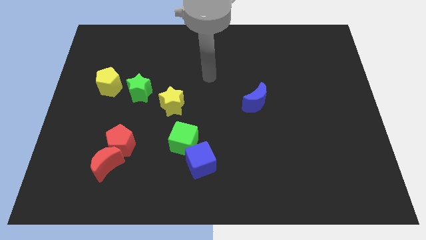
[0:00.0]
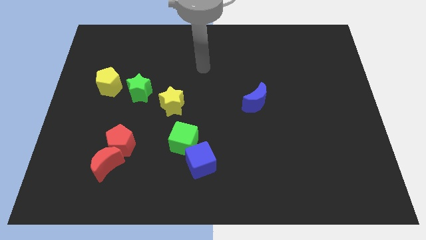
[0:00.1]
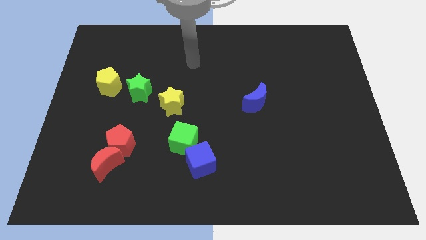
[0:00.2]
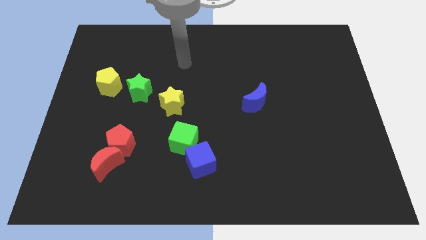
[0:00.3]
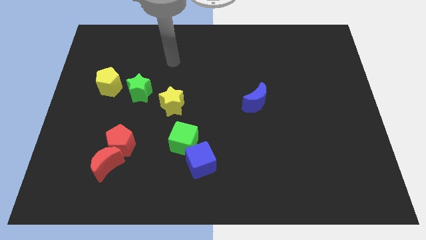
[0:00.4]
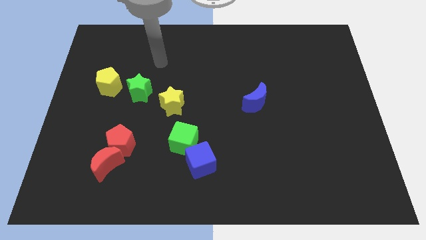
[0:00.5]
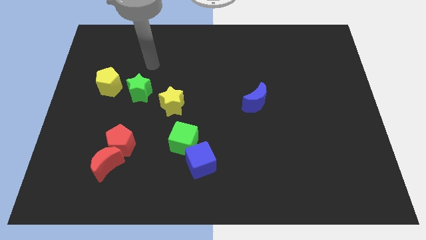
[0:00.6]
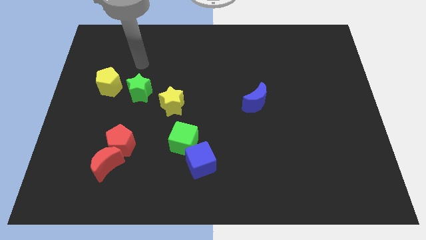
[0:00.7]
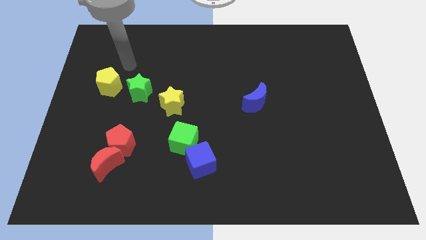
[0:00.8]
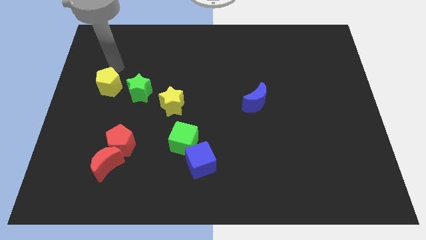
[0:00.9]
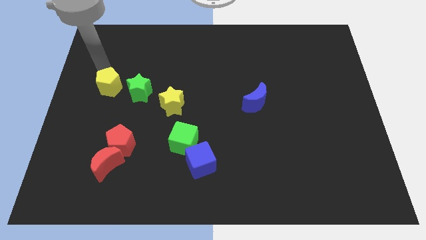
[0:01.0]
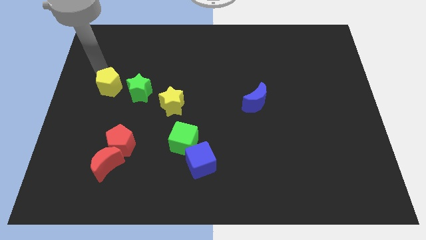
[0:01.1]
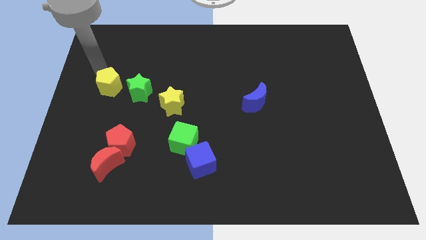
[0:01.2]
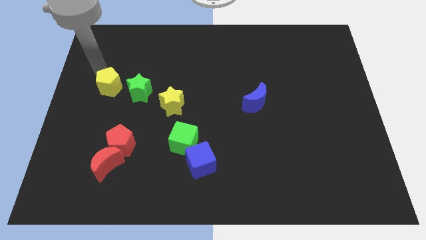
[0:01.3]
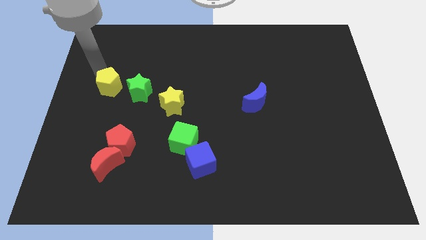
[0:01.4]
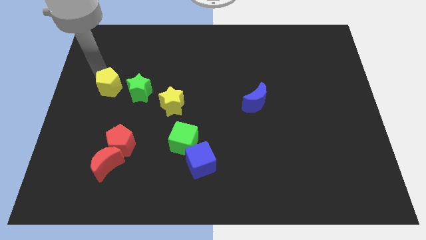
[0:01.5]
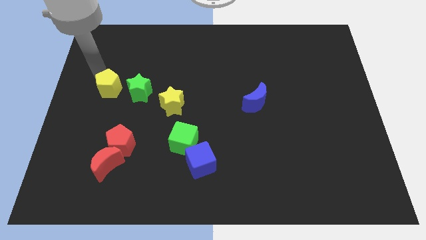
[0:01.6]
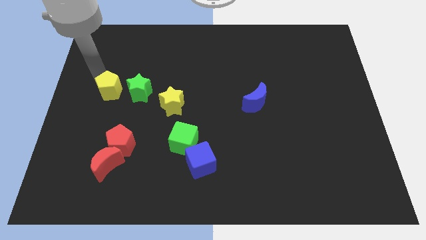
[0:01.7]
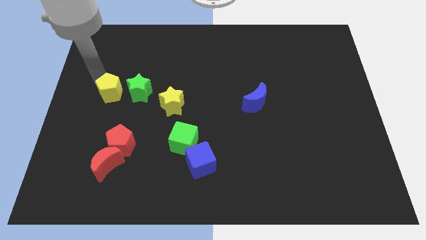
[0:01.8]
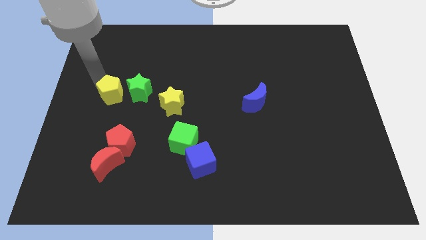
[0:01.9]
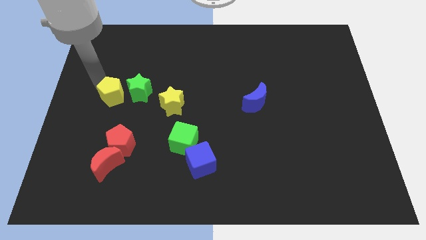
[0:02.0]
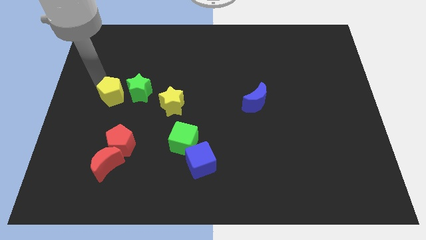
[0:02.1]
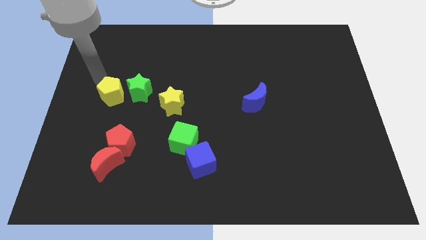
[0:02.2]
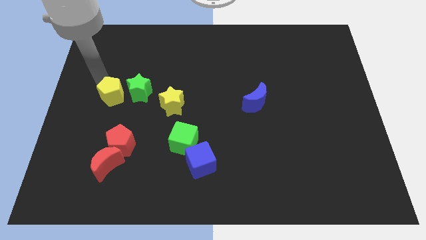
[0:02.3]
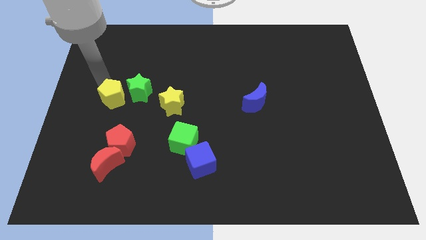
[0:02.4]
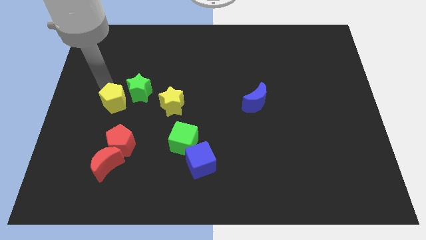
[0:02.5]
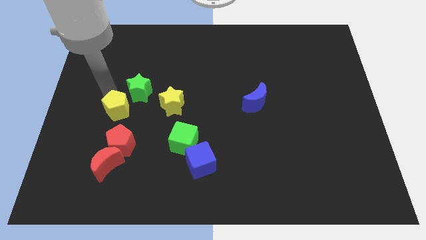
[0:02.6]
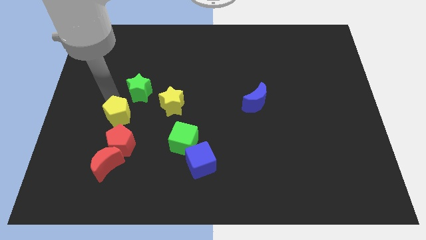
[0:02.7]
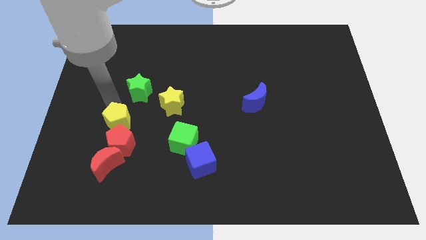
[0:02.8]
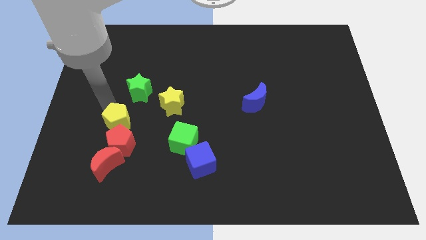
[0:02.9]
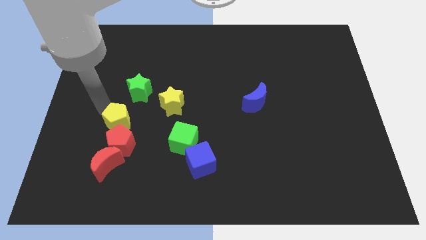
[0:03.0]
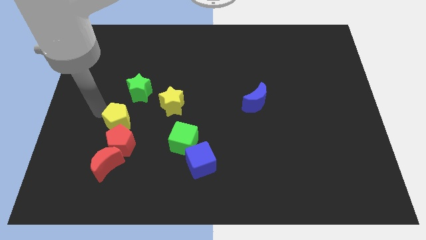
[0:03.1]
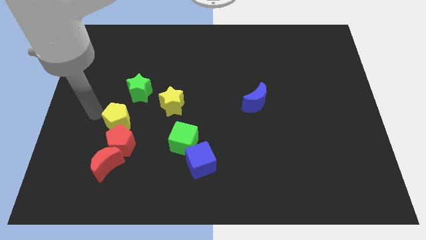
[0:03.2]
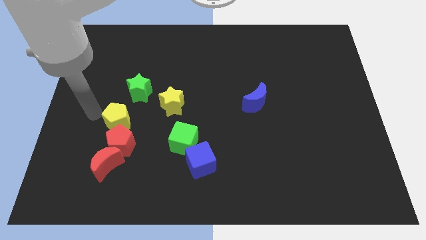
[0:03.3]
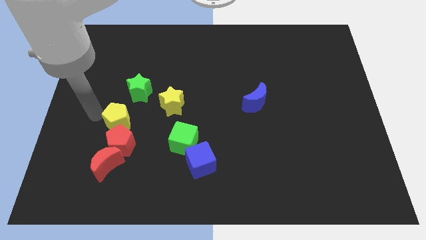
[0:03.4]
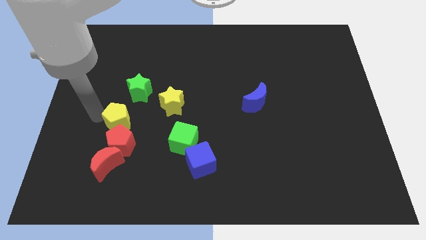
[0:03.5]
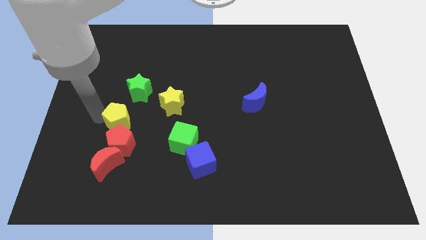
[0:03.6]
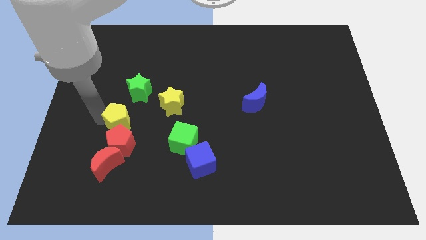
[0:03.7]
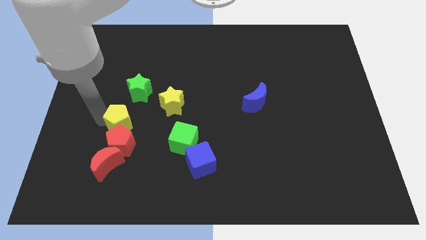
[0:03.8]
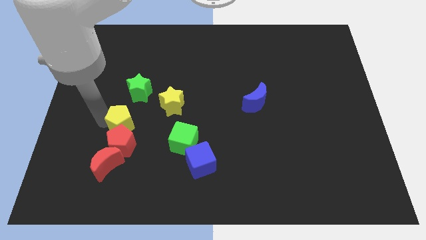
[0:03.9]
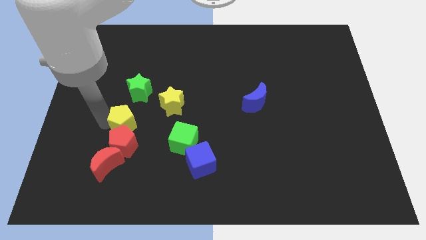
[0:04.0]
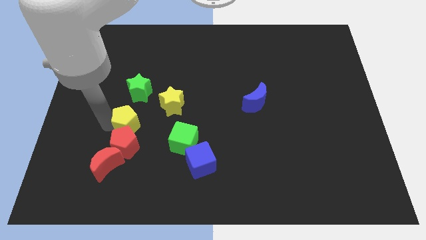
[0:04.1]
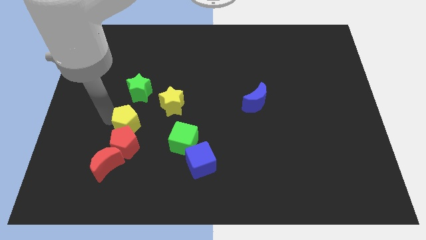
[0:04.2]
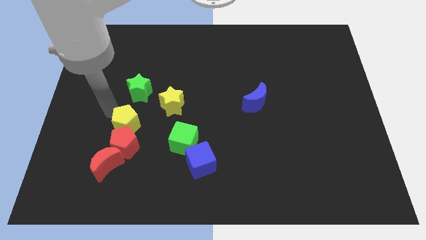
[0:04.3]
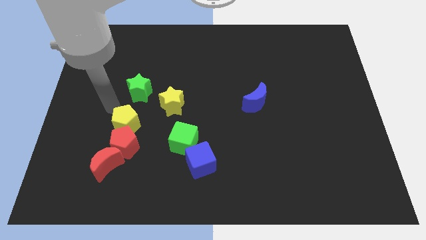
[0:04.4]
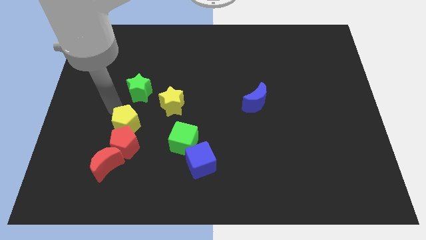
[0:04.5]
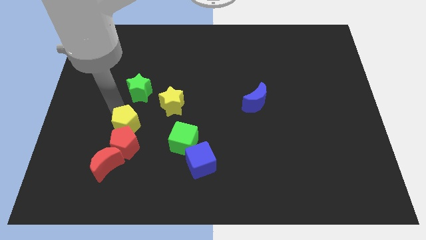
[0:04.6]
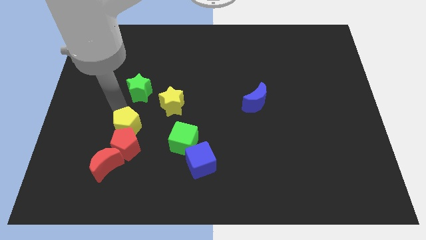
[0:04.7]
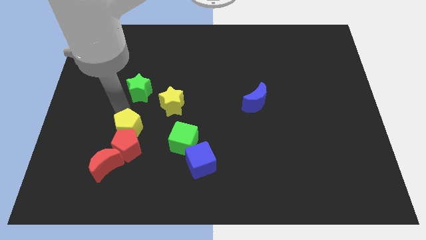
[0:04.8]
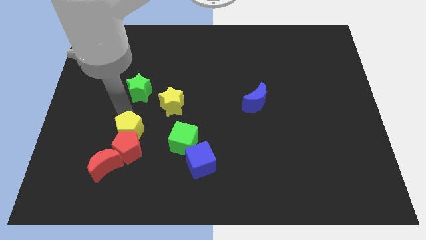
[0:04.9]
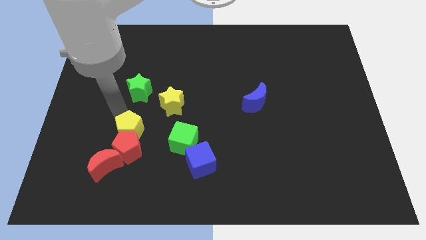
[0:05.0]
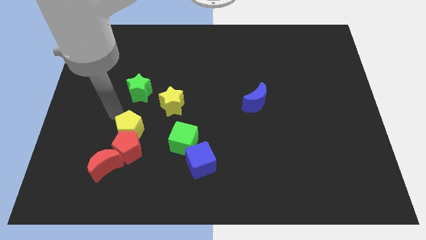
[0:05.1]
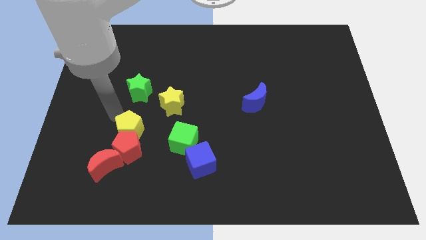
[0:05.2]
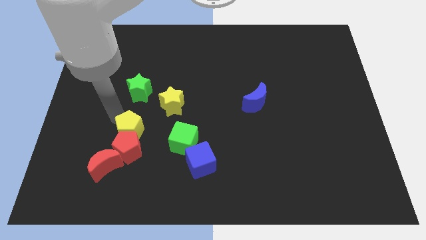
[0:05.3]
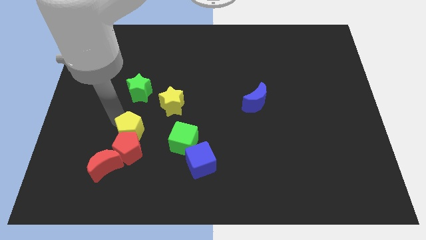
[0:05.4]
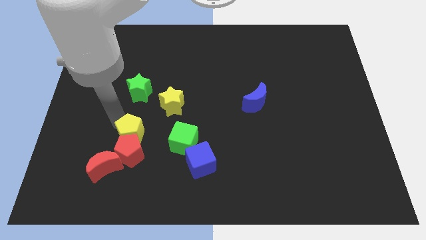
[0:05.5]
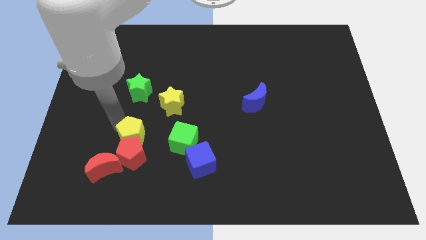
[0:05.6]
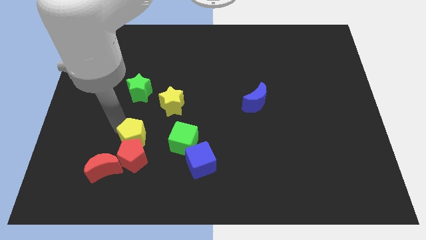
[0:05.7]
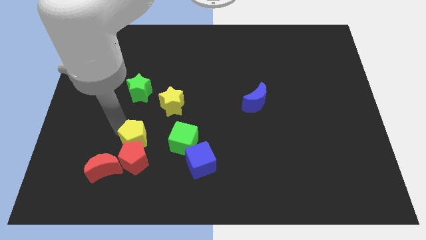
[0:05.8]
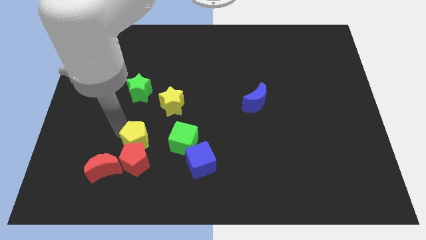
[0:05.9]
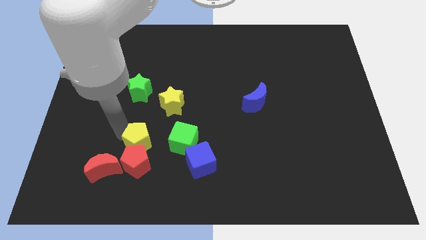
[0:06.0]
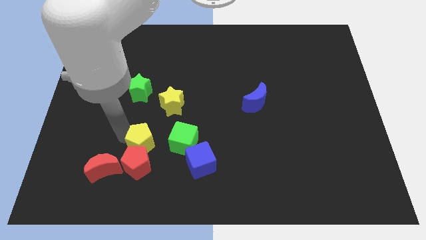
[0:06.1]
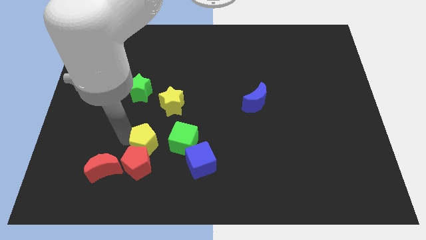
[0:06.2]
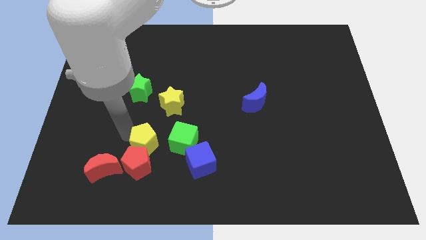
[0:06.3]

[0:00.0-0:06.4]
slide the yellow pentagon below the yellow star
